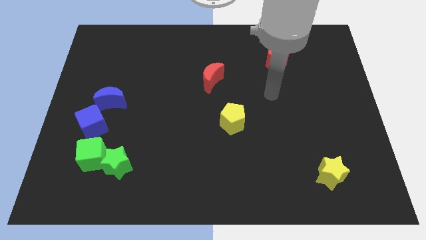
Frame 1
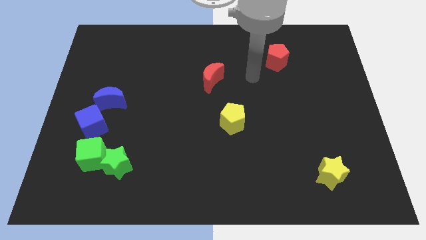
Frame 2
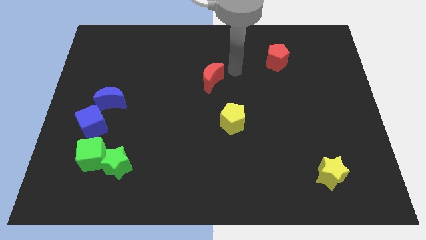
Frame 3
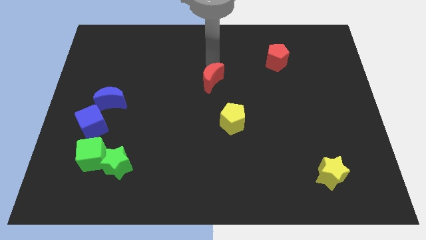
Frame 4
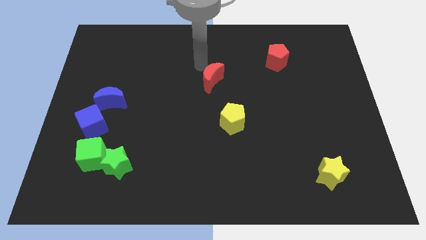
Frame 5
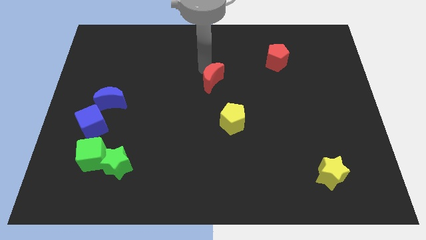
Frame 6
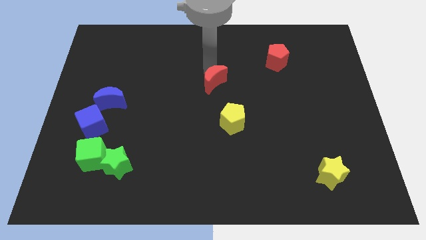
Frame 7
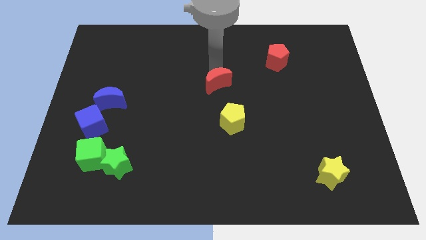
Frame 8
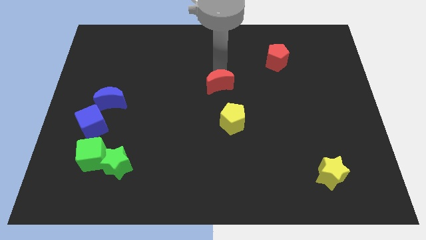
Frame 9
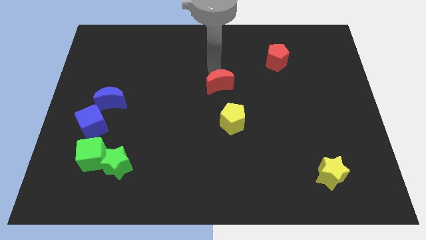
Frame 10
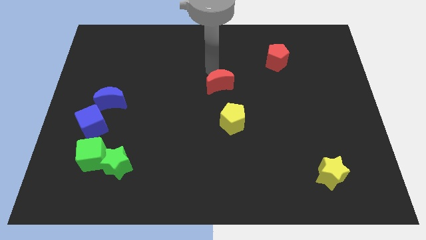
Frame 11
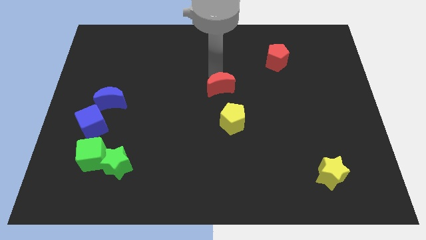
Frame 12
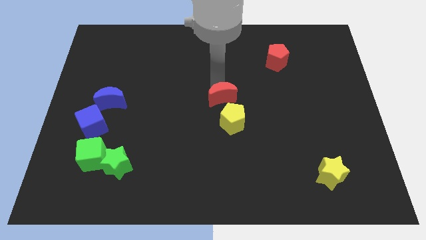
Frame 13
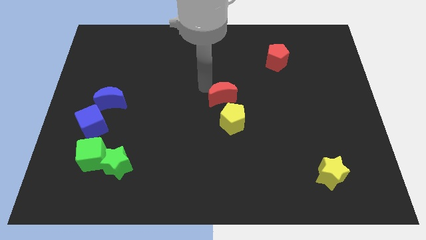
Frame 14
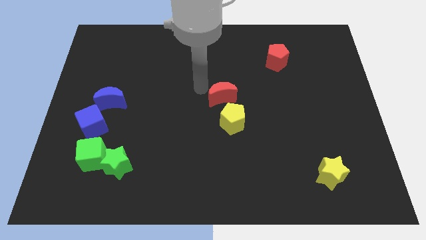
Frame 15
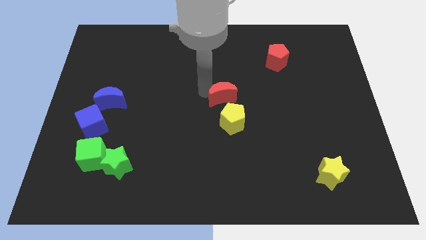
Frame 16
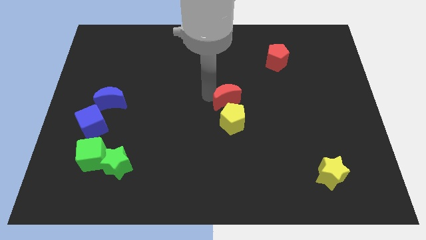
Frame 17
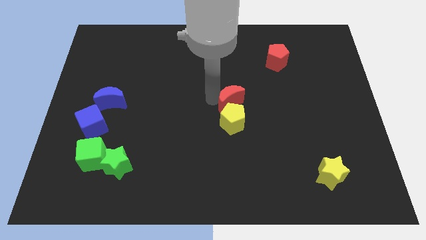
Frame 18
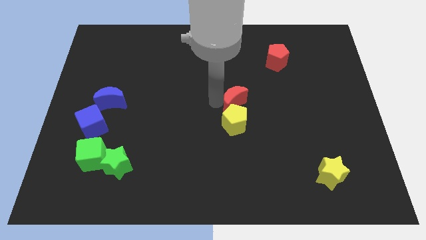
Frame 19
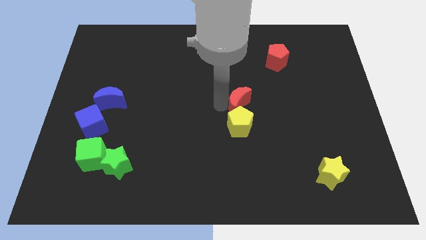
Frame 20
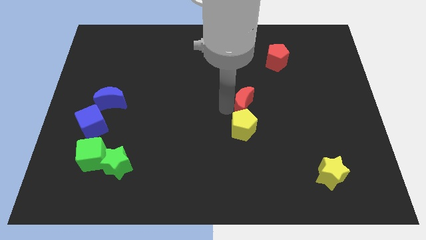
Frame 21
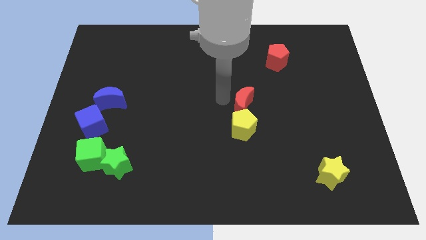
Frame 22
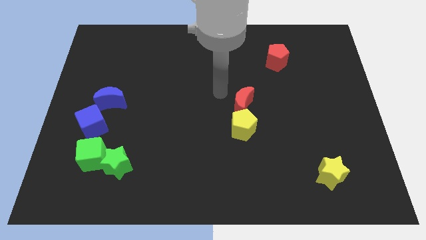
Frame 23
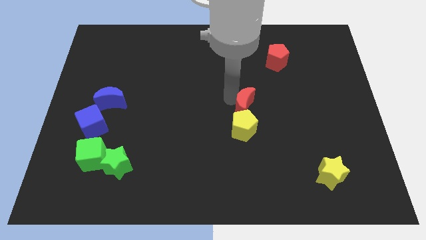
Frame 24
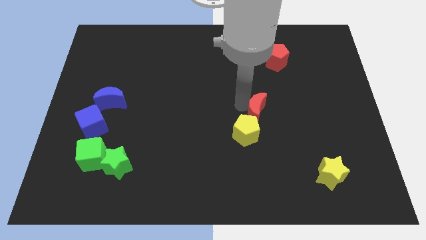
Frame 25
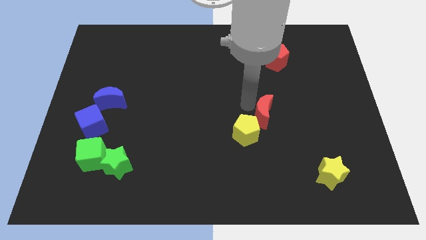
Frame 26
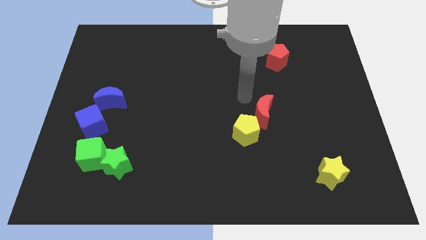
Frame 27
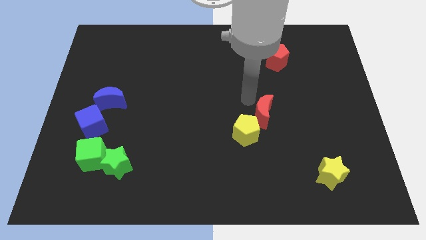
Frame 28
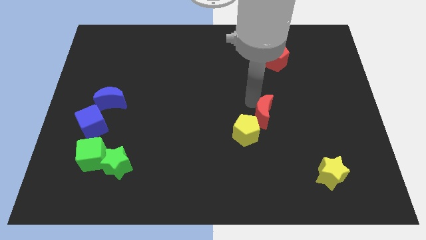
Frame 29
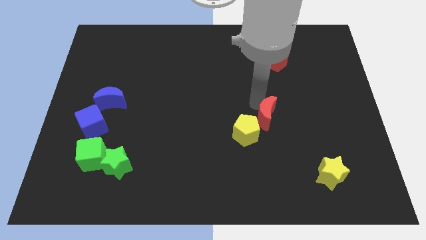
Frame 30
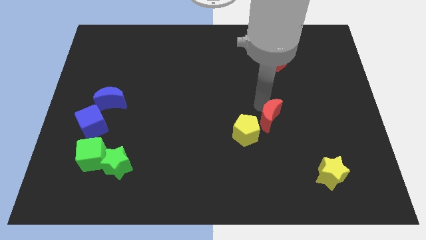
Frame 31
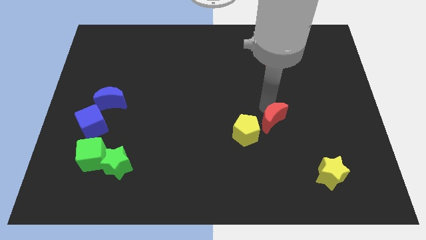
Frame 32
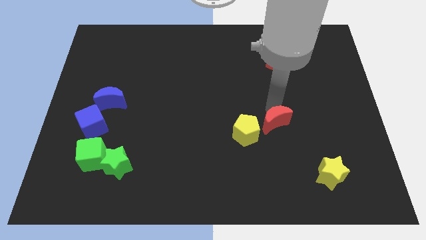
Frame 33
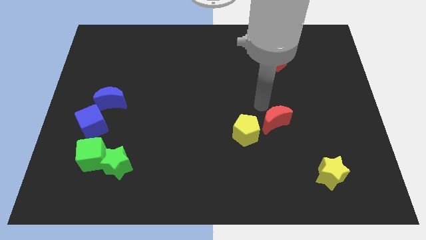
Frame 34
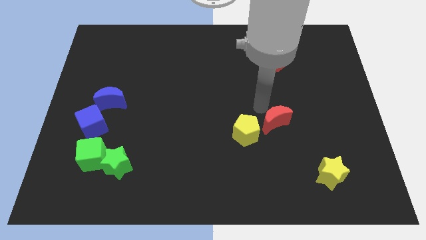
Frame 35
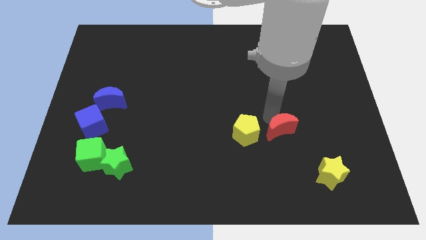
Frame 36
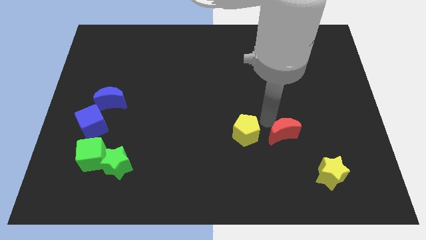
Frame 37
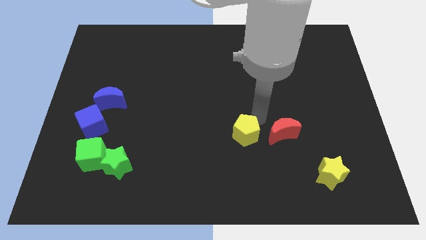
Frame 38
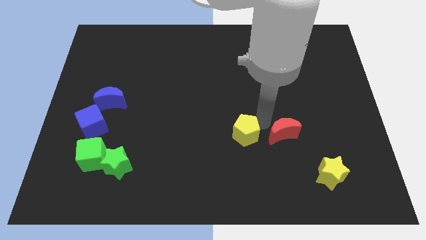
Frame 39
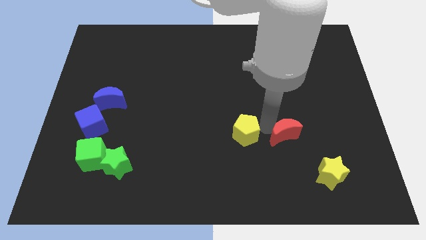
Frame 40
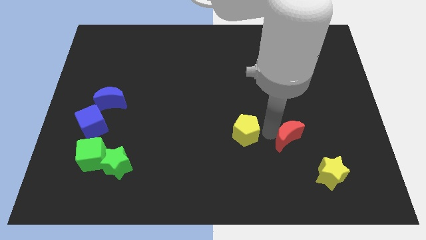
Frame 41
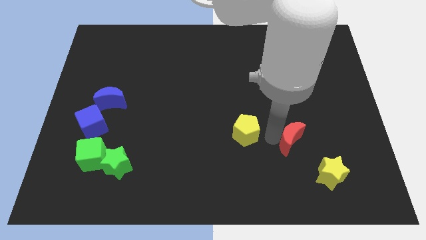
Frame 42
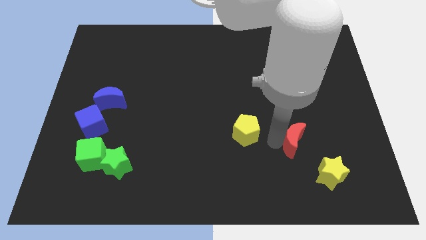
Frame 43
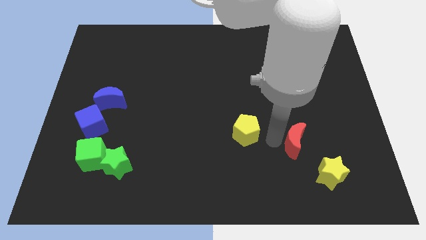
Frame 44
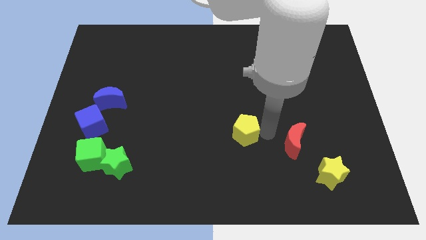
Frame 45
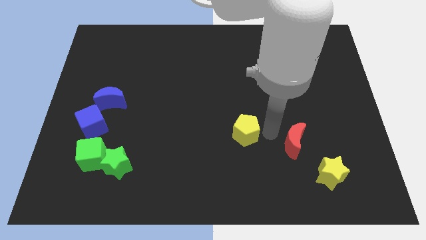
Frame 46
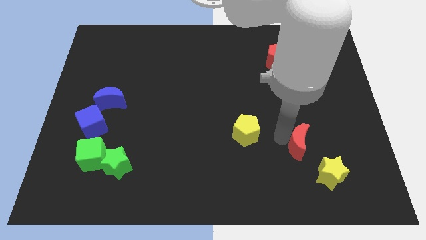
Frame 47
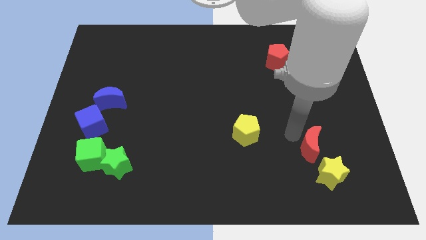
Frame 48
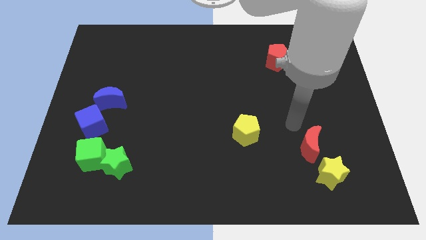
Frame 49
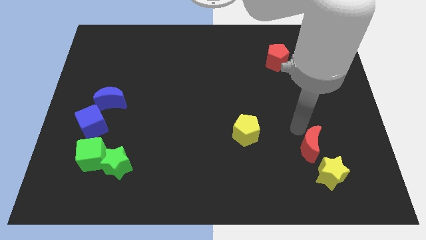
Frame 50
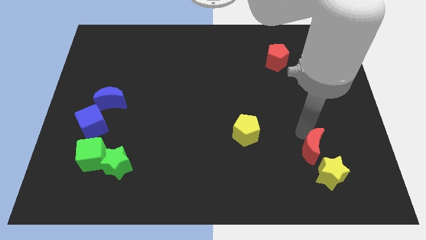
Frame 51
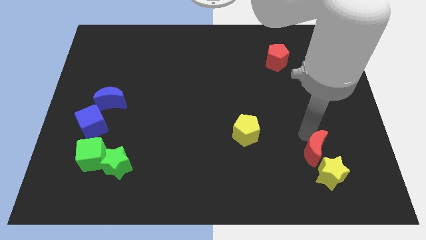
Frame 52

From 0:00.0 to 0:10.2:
move the red moon to the yellow star

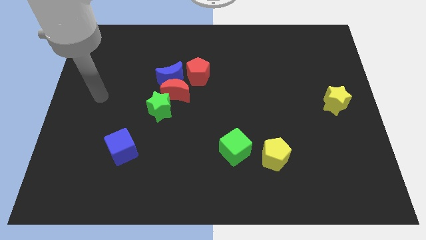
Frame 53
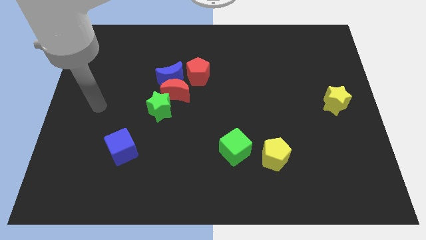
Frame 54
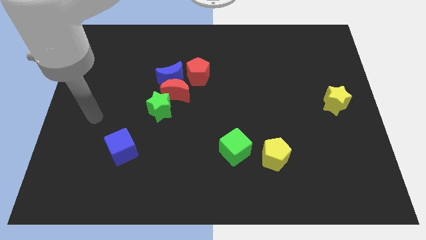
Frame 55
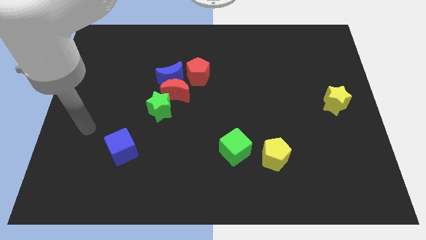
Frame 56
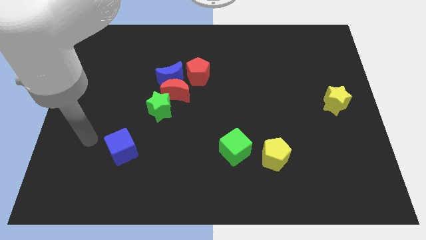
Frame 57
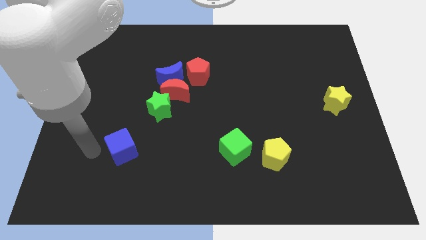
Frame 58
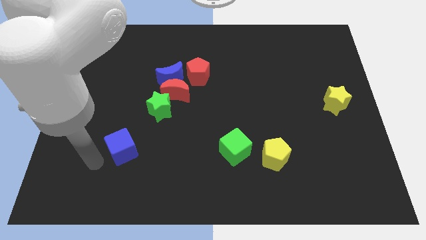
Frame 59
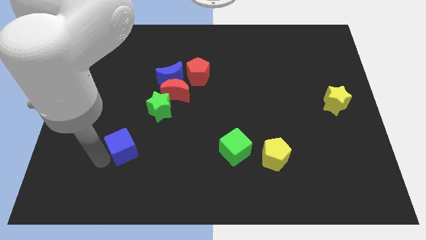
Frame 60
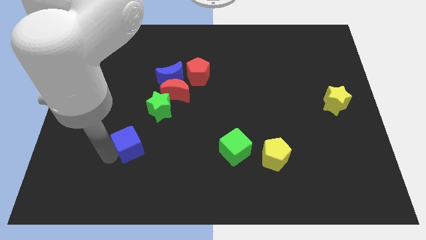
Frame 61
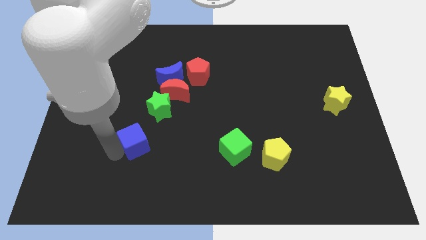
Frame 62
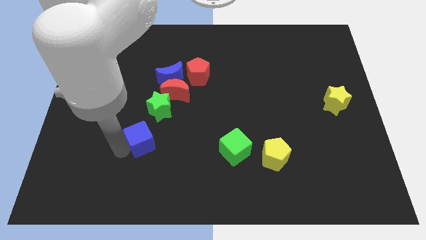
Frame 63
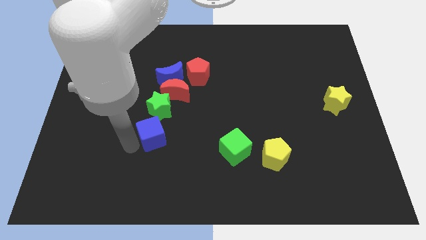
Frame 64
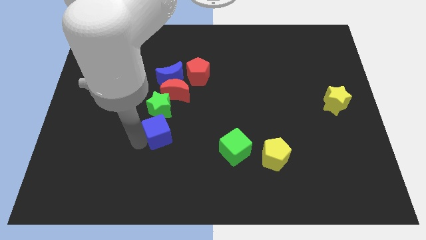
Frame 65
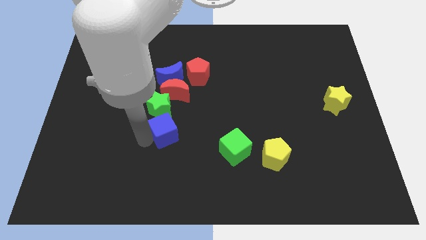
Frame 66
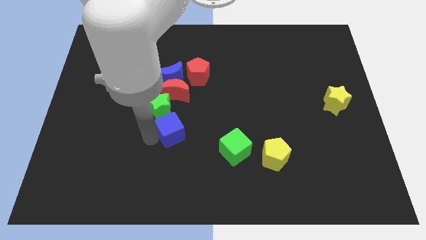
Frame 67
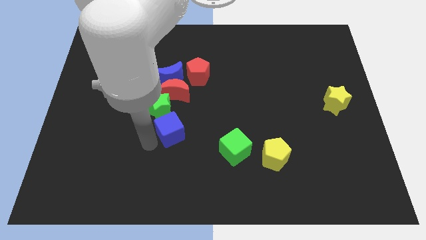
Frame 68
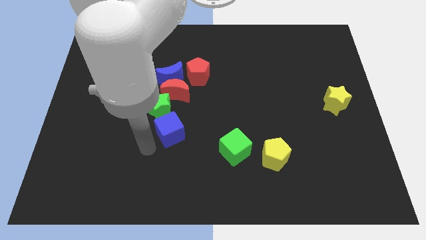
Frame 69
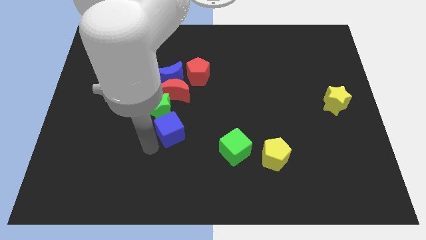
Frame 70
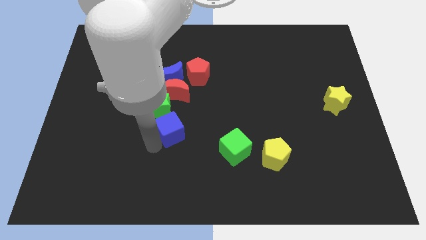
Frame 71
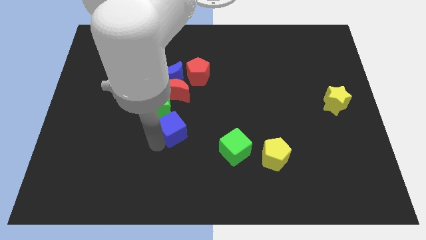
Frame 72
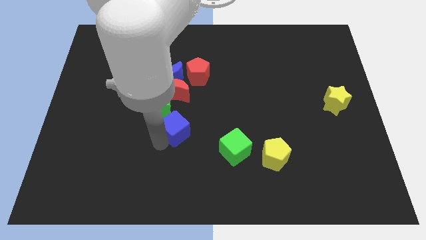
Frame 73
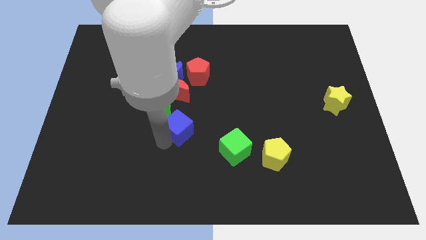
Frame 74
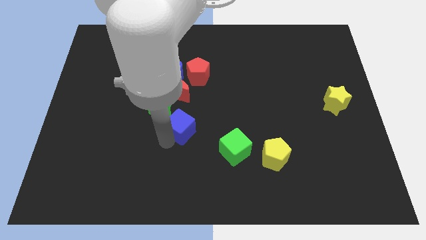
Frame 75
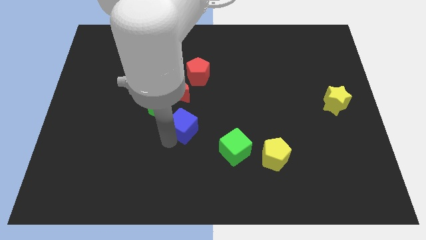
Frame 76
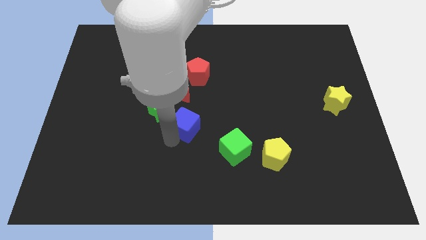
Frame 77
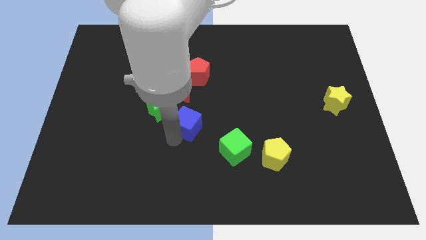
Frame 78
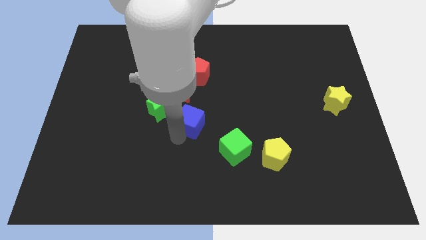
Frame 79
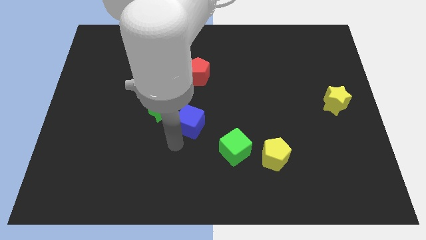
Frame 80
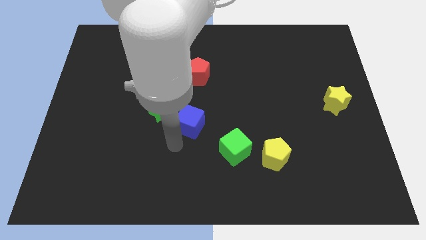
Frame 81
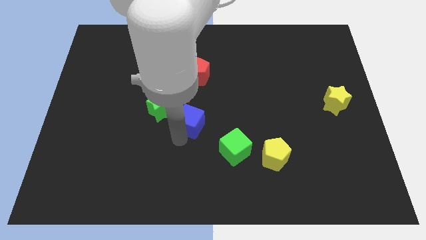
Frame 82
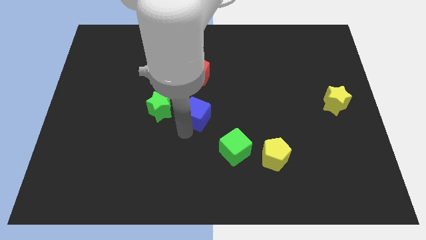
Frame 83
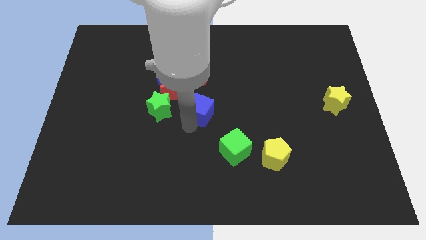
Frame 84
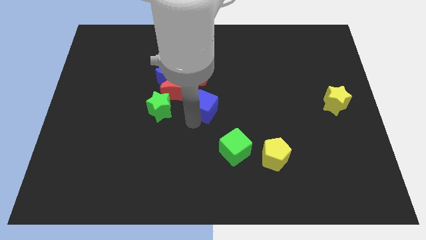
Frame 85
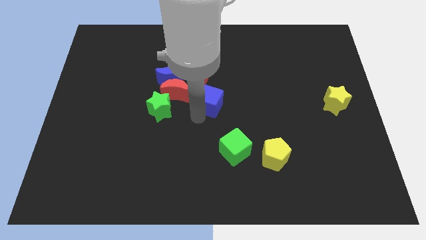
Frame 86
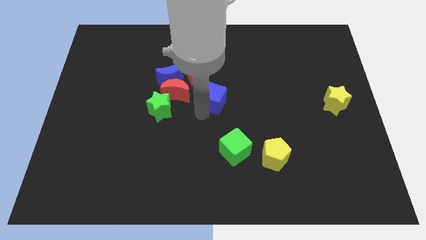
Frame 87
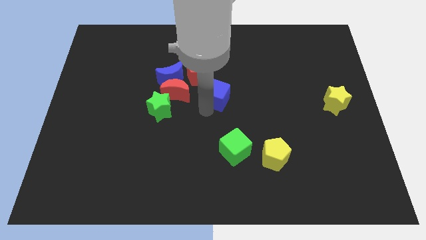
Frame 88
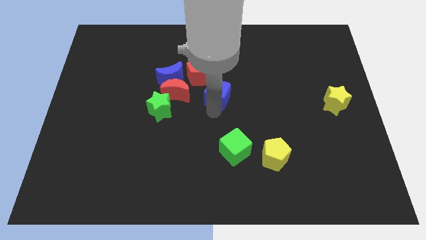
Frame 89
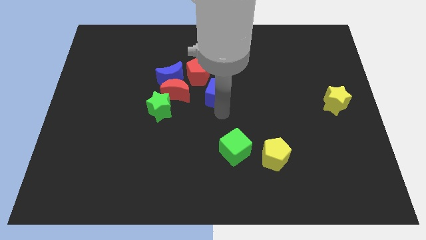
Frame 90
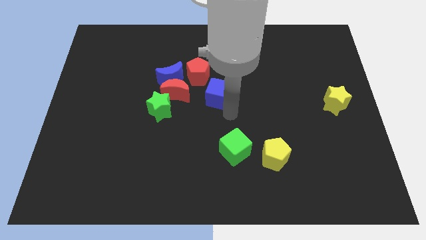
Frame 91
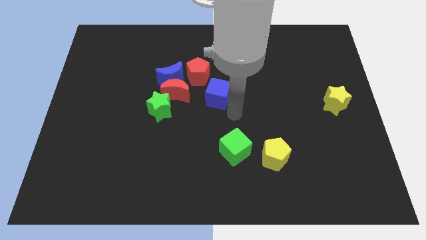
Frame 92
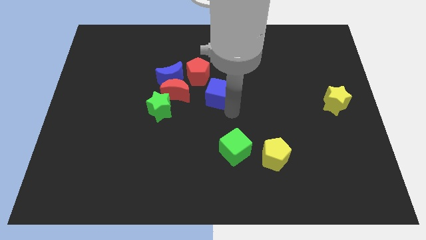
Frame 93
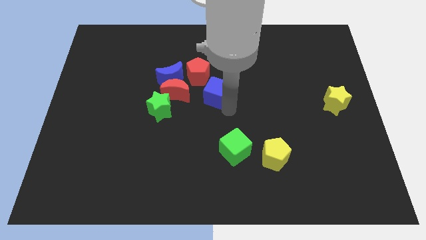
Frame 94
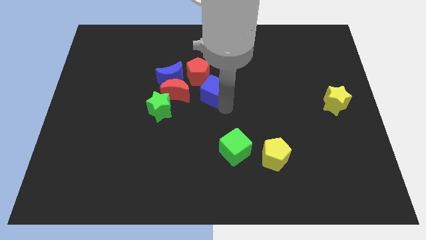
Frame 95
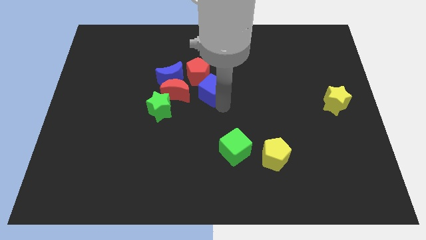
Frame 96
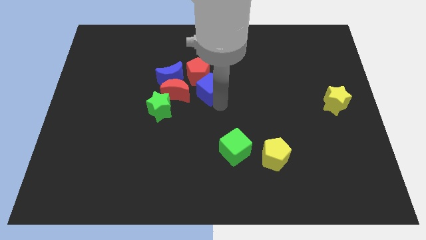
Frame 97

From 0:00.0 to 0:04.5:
put the blue cube close to the red pentagon
